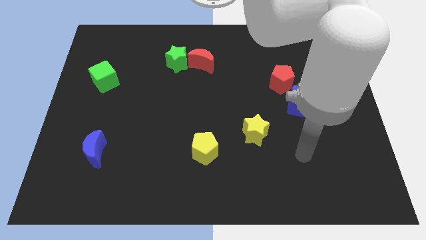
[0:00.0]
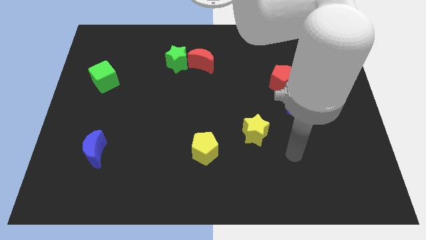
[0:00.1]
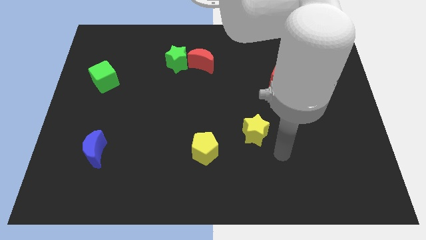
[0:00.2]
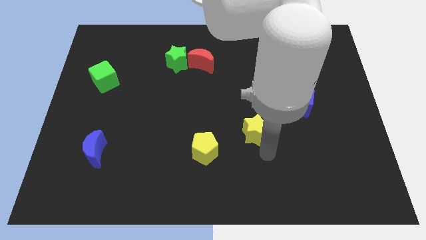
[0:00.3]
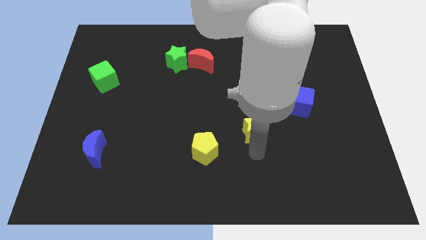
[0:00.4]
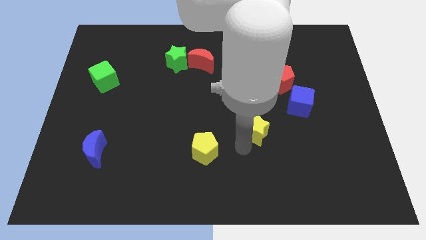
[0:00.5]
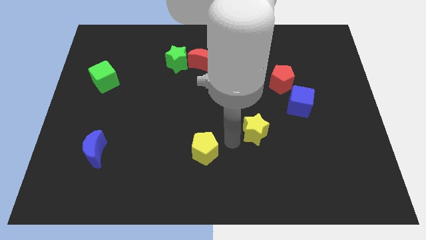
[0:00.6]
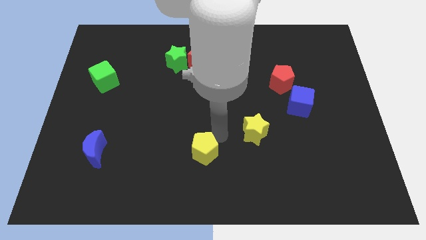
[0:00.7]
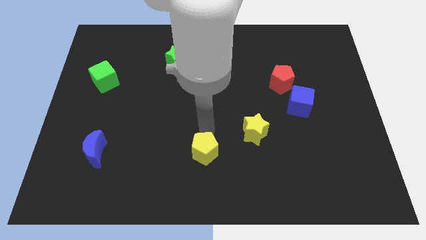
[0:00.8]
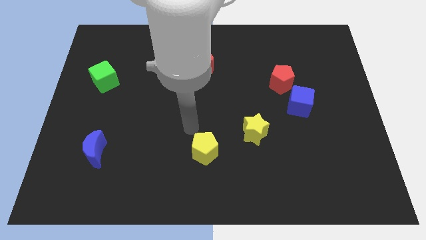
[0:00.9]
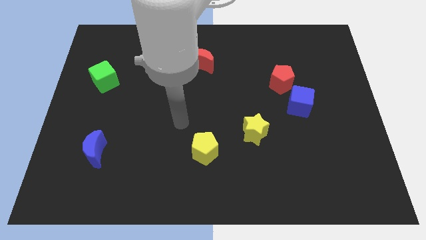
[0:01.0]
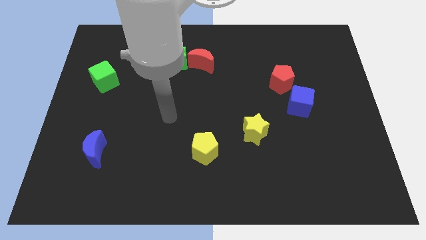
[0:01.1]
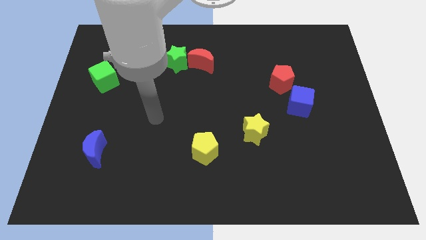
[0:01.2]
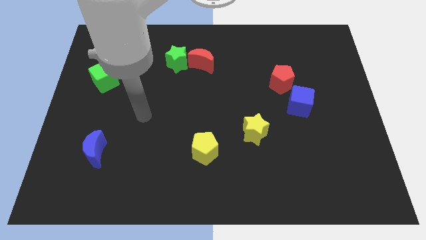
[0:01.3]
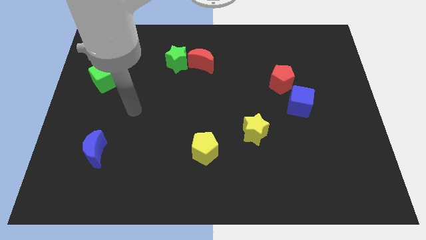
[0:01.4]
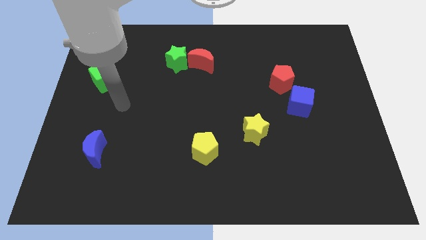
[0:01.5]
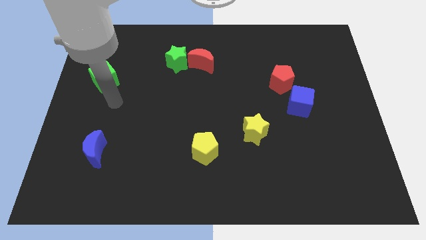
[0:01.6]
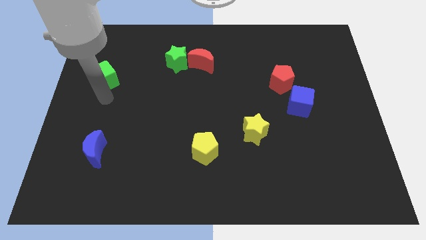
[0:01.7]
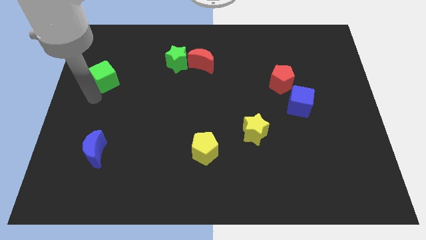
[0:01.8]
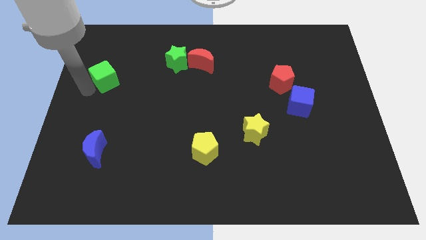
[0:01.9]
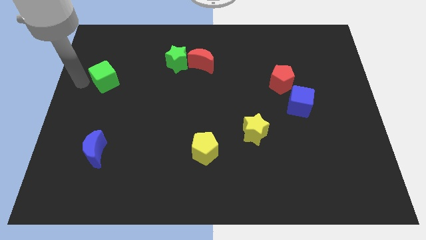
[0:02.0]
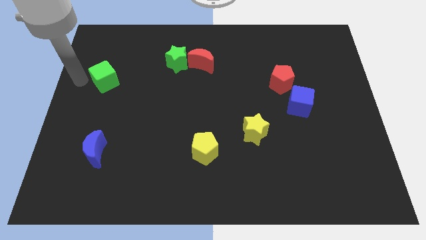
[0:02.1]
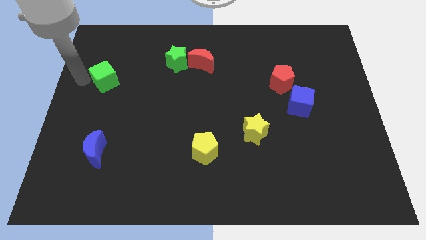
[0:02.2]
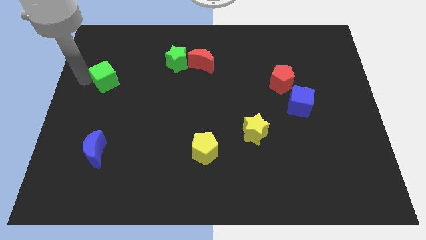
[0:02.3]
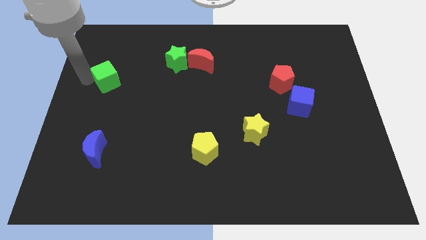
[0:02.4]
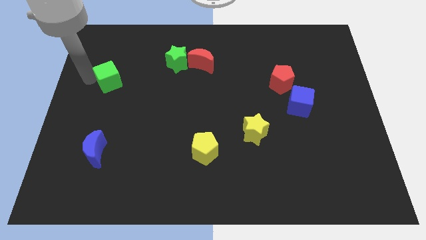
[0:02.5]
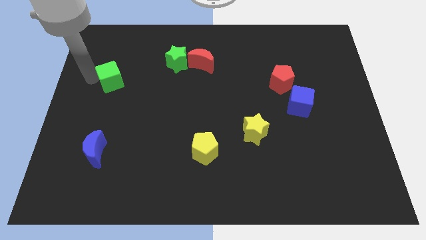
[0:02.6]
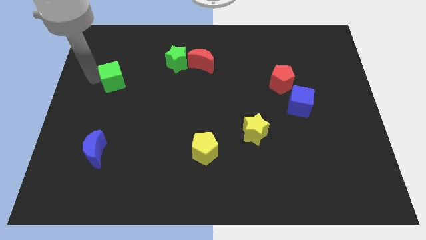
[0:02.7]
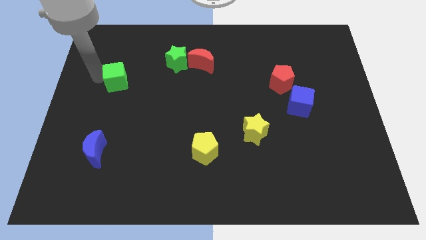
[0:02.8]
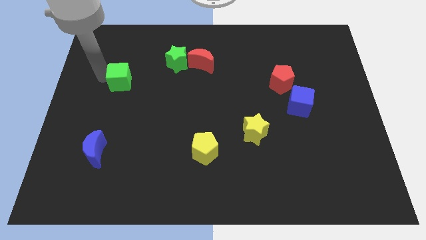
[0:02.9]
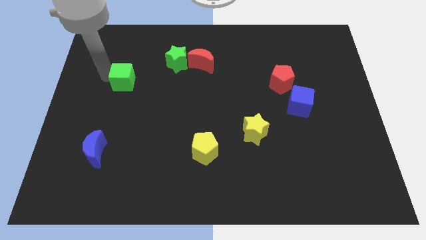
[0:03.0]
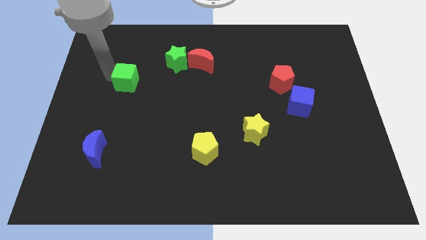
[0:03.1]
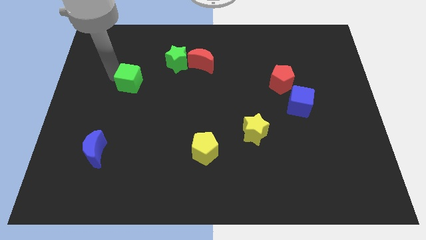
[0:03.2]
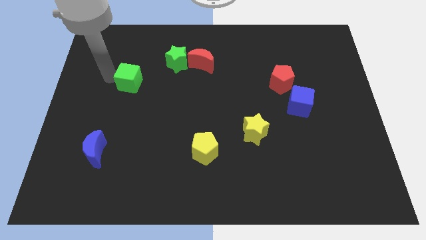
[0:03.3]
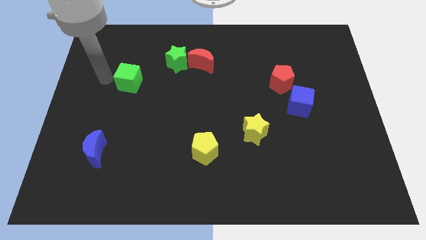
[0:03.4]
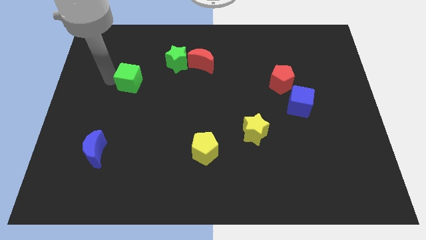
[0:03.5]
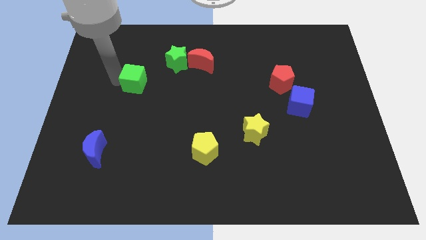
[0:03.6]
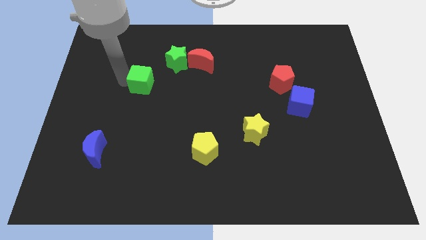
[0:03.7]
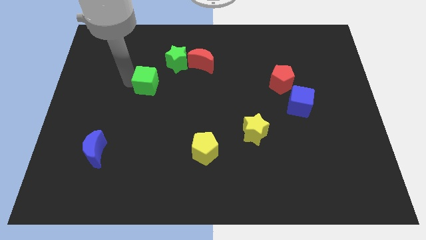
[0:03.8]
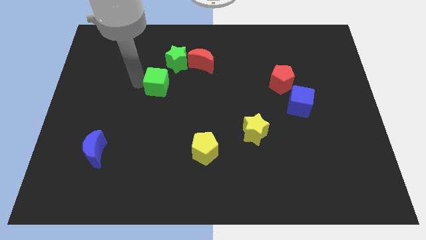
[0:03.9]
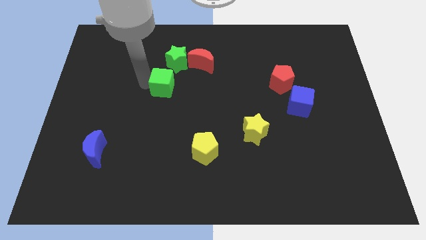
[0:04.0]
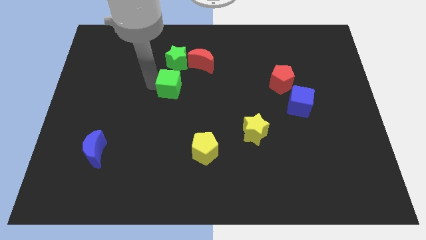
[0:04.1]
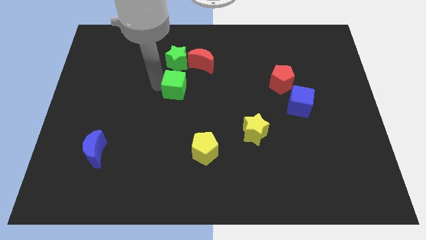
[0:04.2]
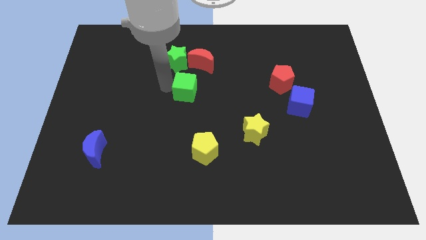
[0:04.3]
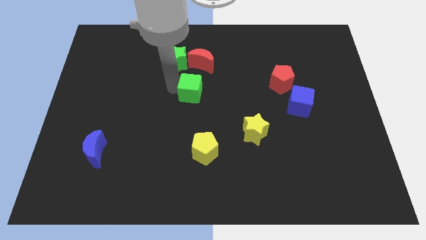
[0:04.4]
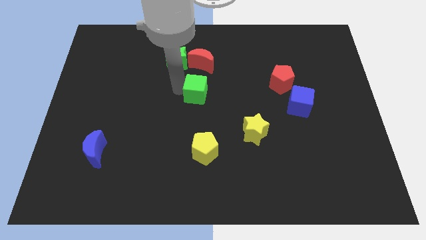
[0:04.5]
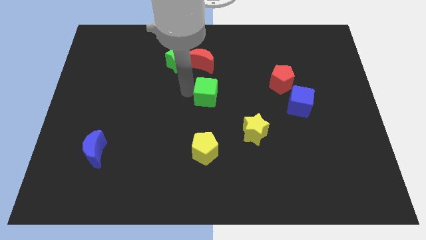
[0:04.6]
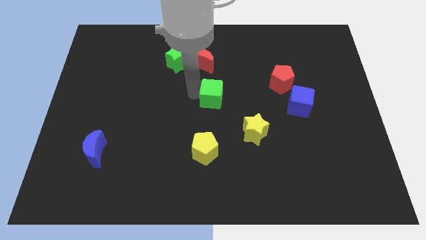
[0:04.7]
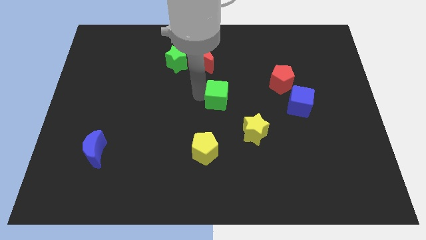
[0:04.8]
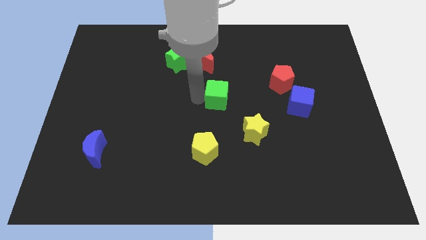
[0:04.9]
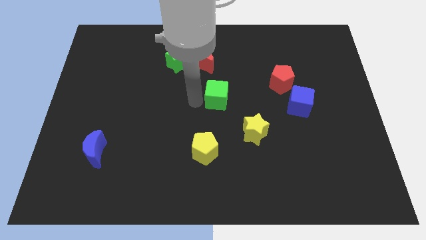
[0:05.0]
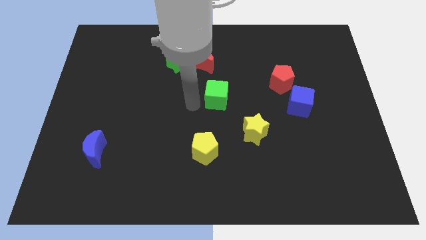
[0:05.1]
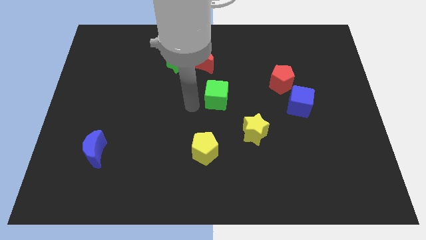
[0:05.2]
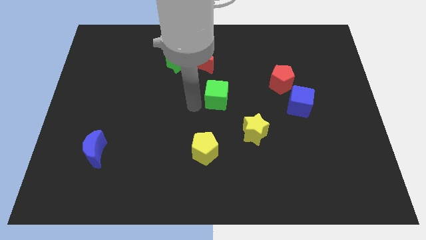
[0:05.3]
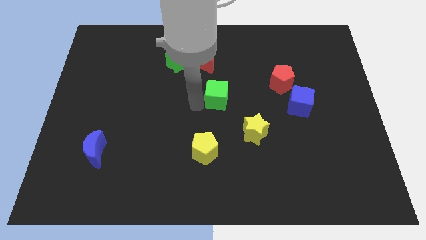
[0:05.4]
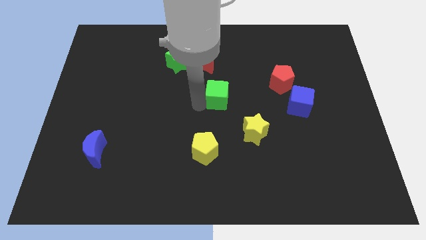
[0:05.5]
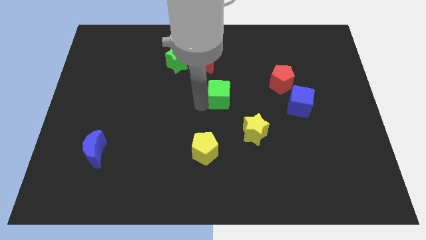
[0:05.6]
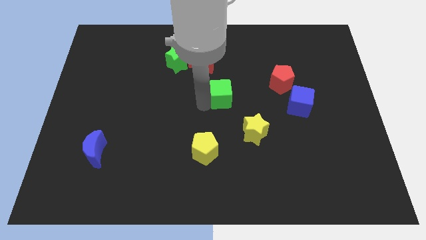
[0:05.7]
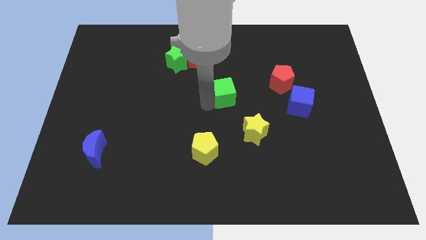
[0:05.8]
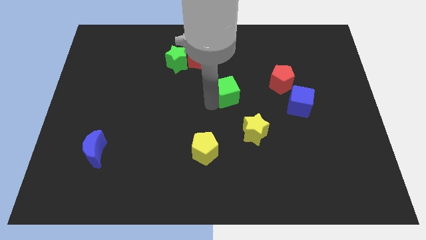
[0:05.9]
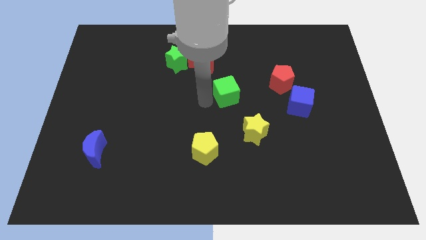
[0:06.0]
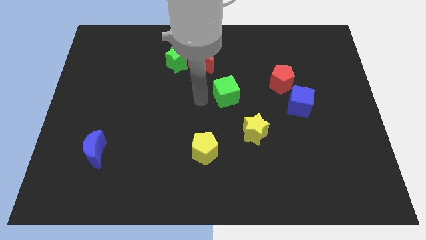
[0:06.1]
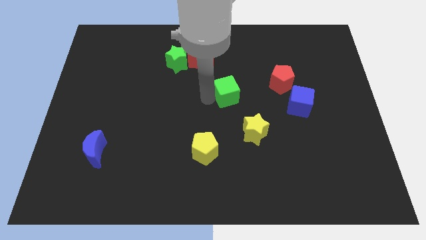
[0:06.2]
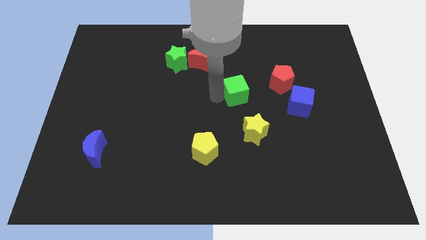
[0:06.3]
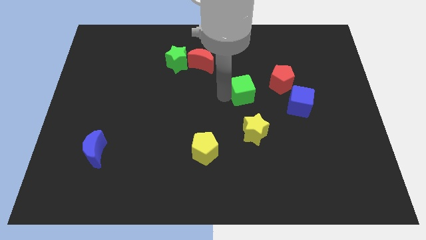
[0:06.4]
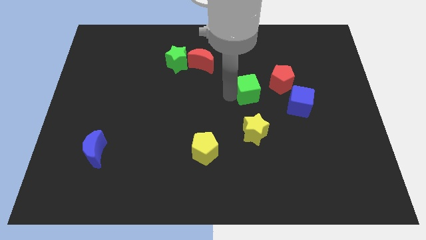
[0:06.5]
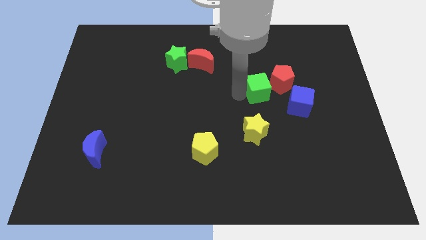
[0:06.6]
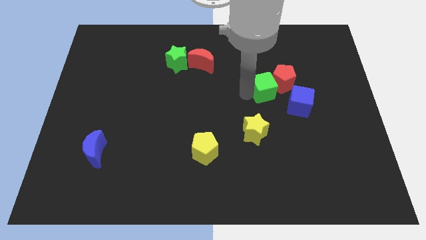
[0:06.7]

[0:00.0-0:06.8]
push the green cube towards the red pentagon

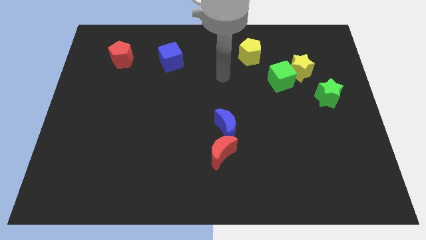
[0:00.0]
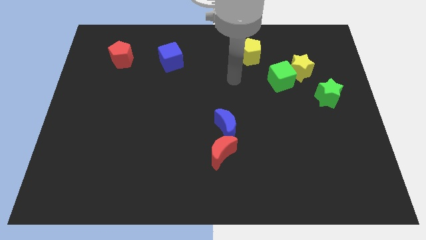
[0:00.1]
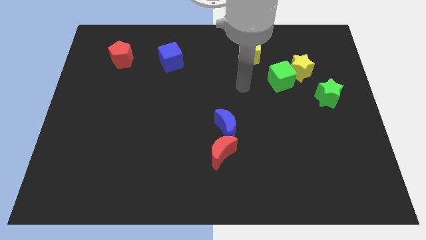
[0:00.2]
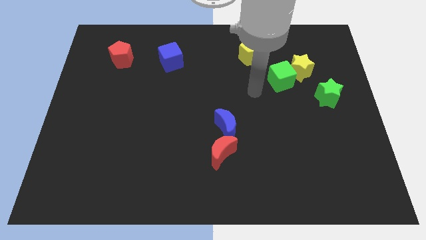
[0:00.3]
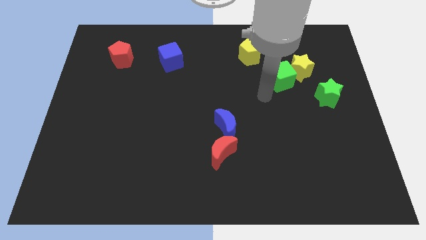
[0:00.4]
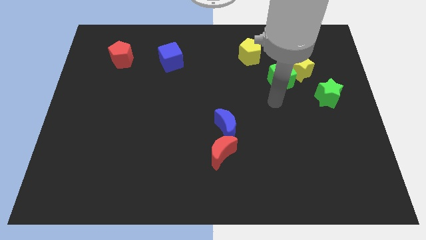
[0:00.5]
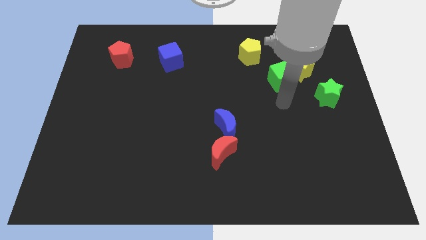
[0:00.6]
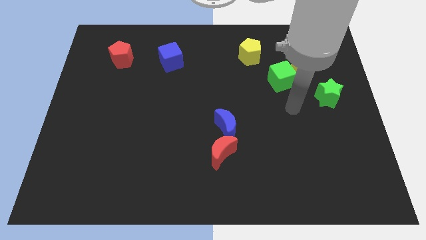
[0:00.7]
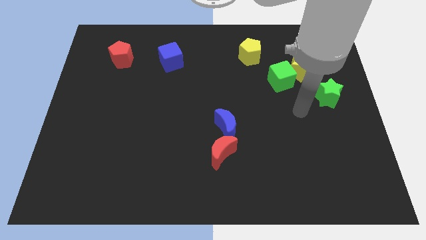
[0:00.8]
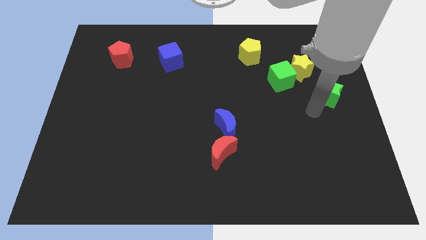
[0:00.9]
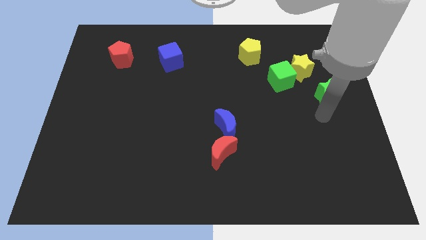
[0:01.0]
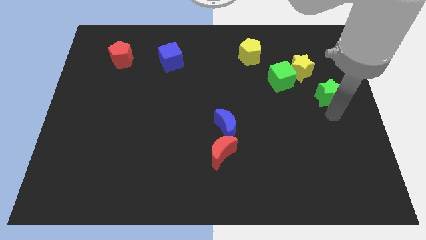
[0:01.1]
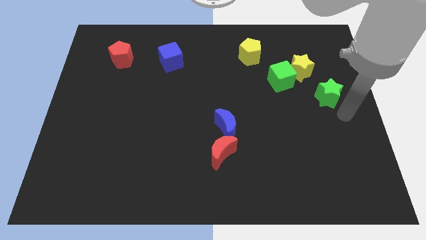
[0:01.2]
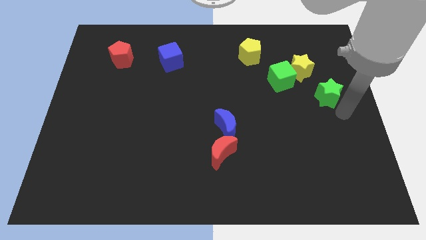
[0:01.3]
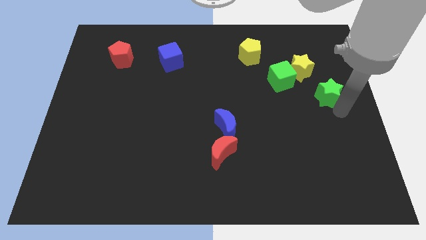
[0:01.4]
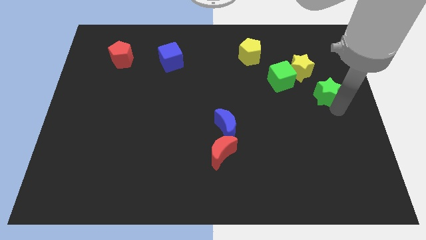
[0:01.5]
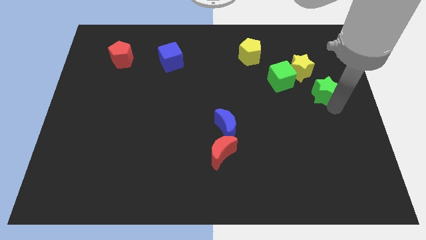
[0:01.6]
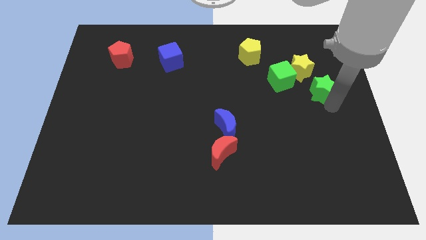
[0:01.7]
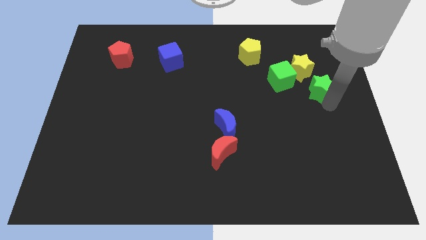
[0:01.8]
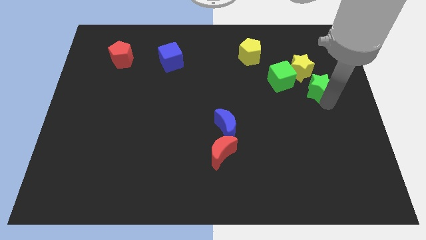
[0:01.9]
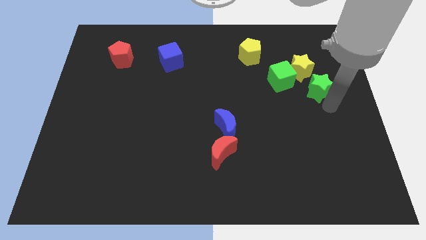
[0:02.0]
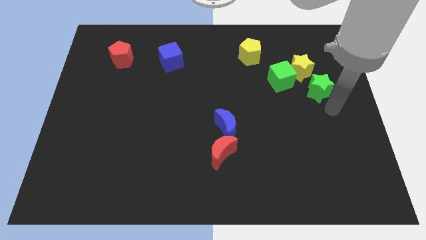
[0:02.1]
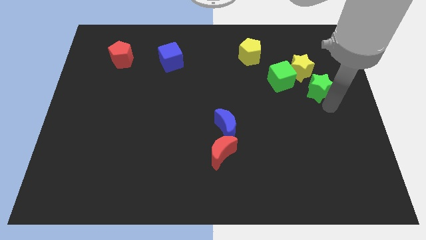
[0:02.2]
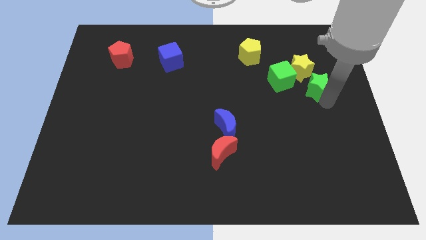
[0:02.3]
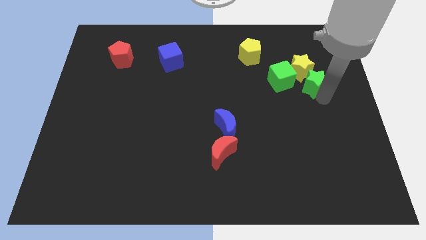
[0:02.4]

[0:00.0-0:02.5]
push the green star next to the yellow star
